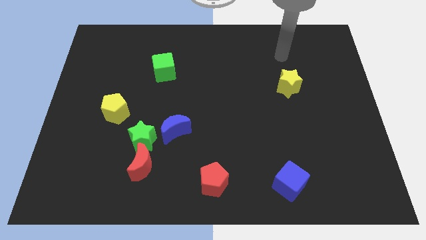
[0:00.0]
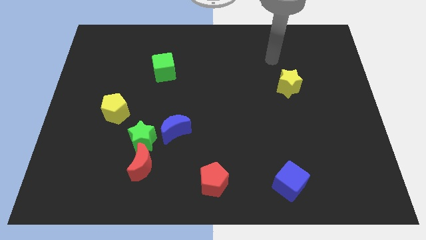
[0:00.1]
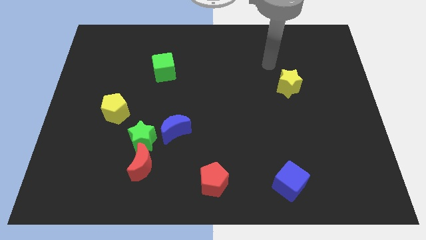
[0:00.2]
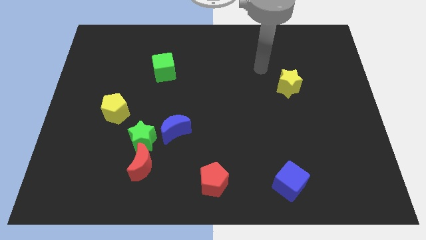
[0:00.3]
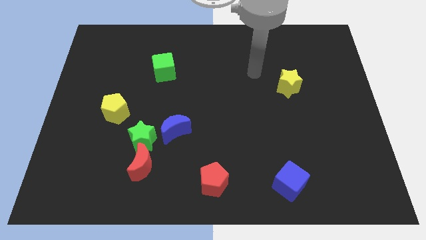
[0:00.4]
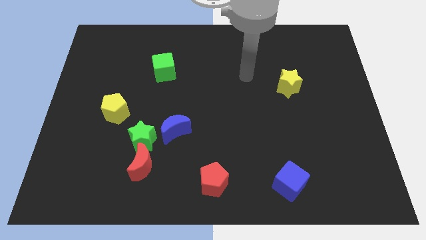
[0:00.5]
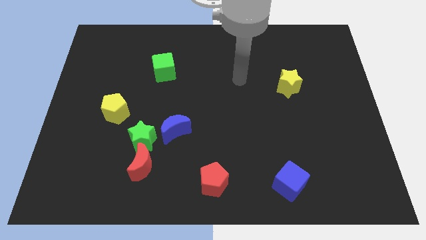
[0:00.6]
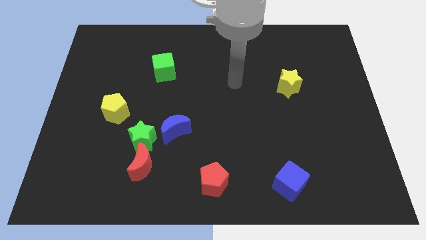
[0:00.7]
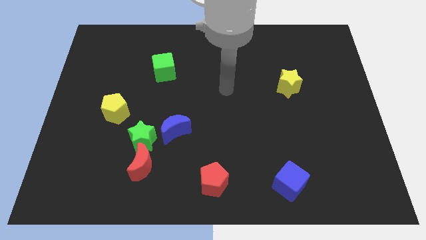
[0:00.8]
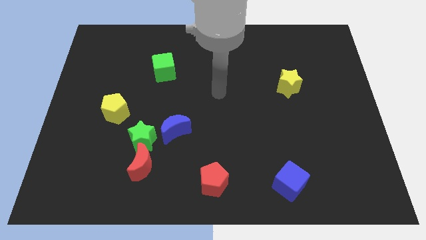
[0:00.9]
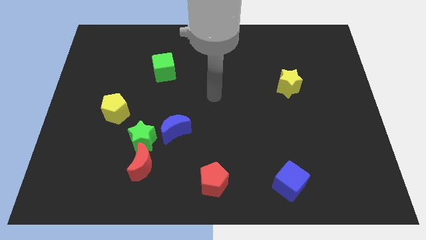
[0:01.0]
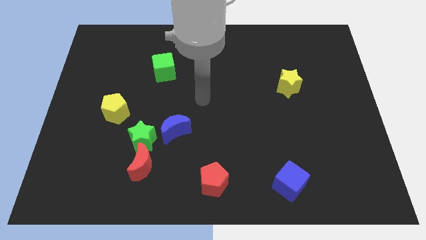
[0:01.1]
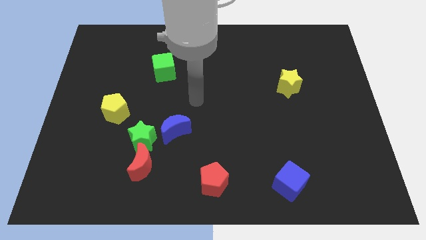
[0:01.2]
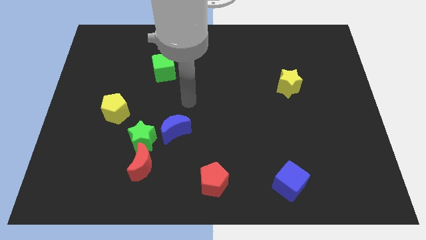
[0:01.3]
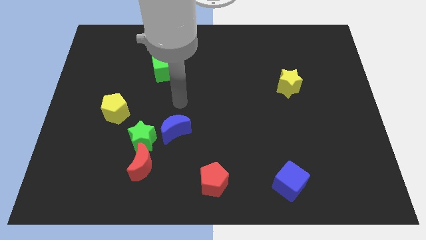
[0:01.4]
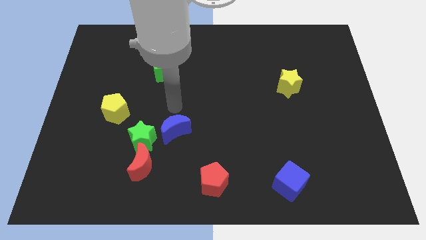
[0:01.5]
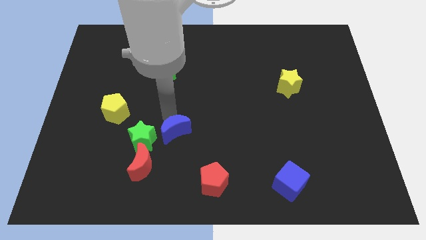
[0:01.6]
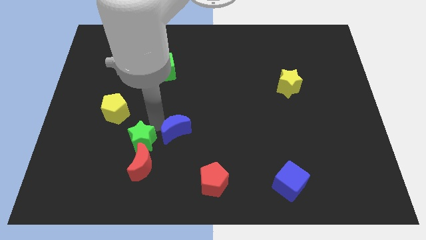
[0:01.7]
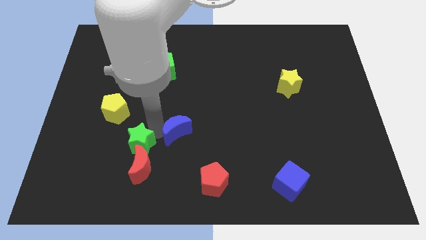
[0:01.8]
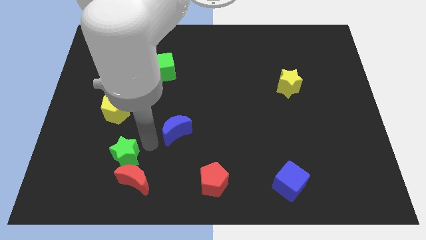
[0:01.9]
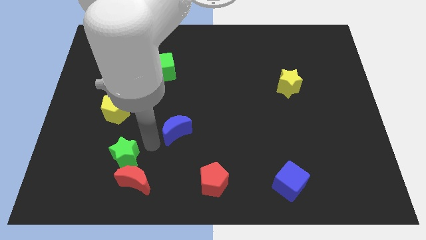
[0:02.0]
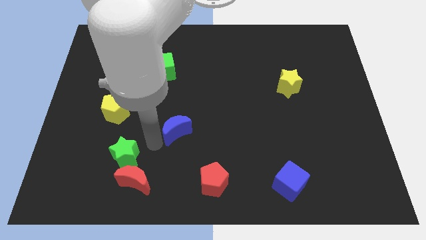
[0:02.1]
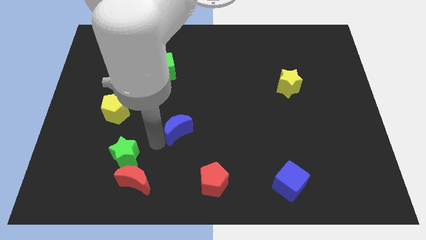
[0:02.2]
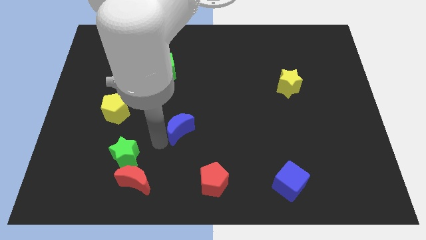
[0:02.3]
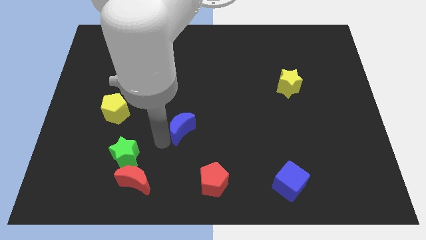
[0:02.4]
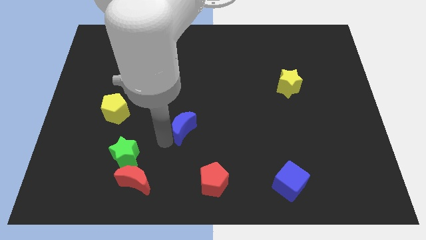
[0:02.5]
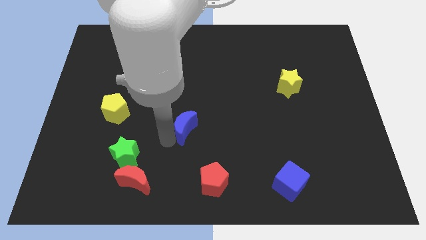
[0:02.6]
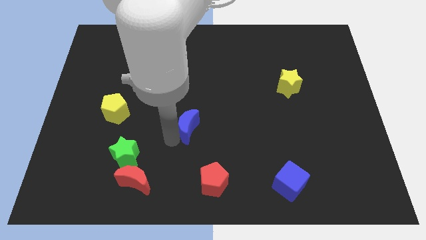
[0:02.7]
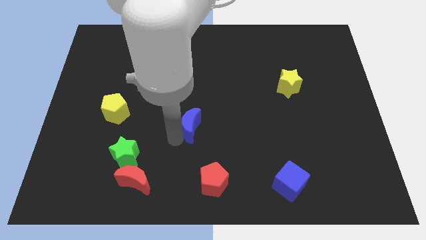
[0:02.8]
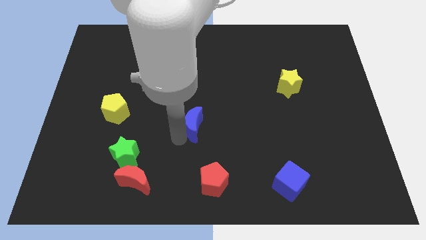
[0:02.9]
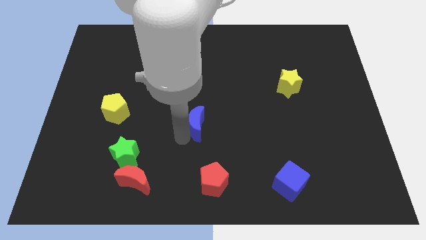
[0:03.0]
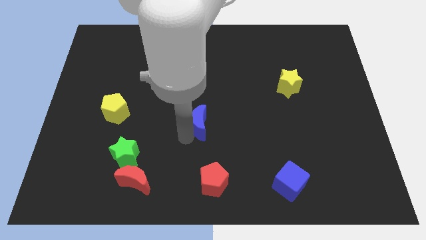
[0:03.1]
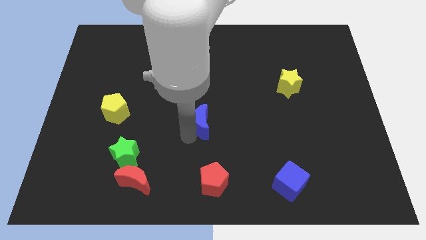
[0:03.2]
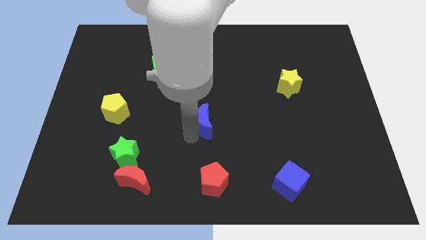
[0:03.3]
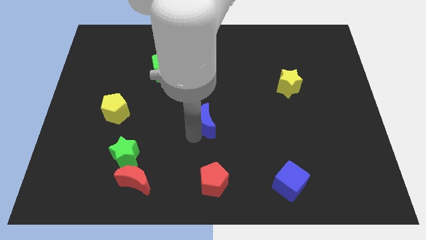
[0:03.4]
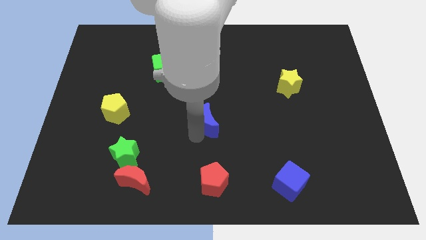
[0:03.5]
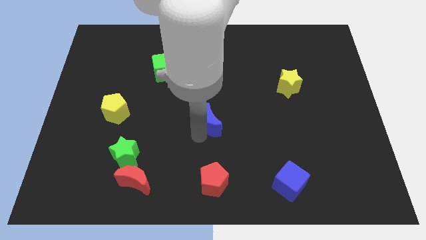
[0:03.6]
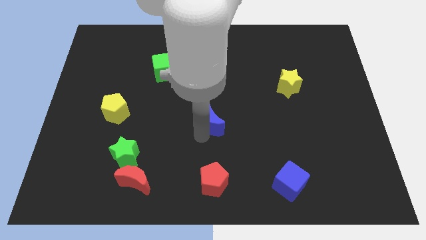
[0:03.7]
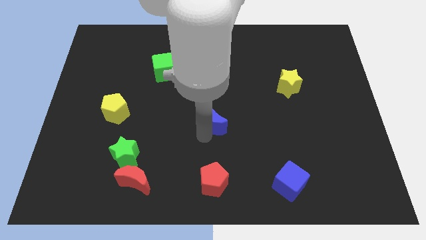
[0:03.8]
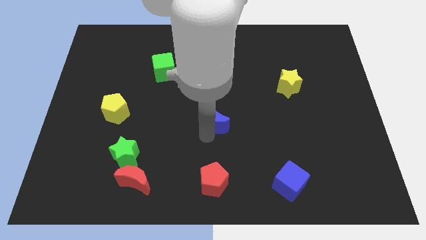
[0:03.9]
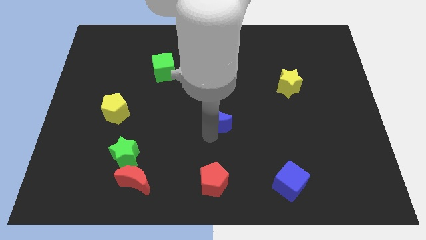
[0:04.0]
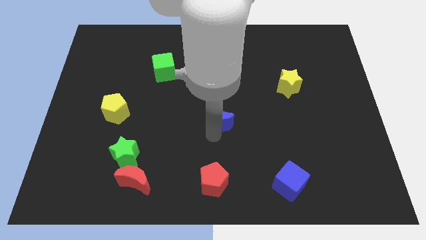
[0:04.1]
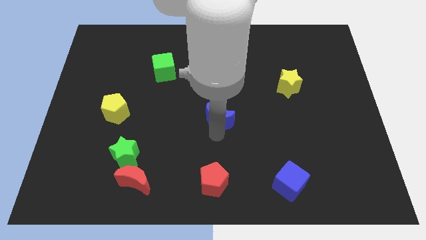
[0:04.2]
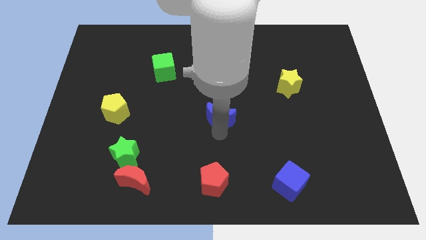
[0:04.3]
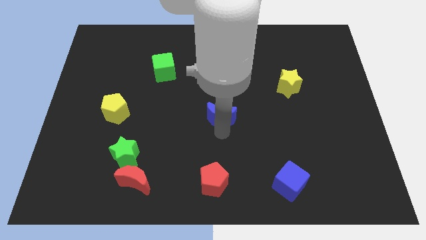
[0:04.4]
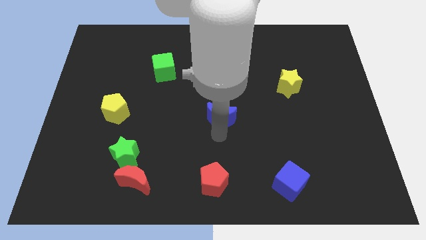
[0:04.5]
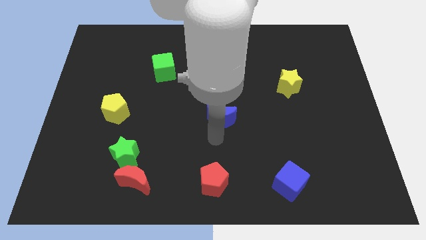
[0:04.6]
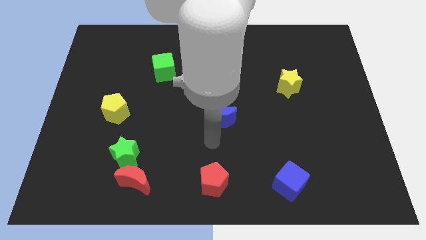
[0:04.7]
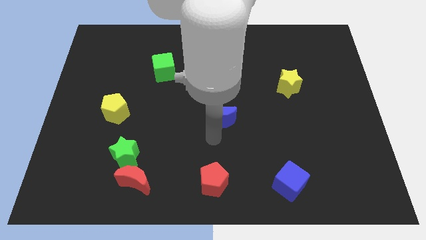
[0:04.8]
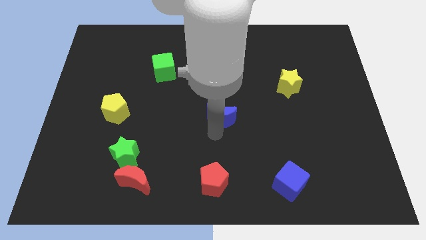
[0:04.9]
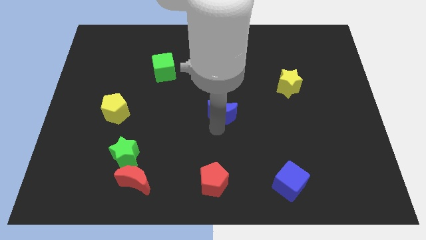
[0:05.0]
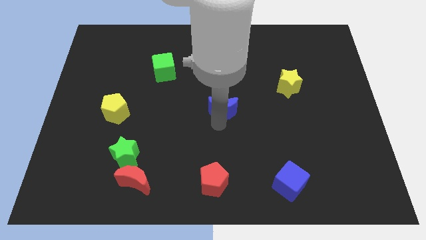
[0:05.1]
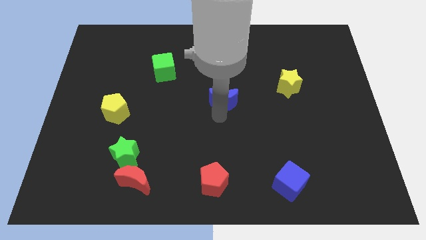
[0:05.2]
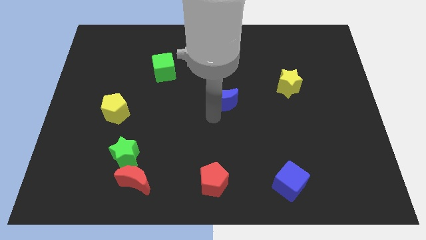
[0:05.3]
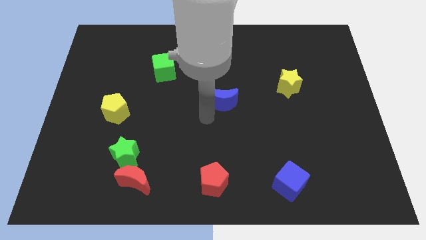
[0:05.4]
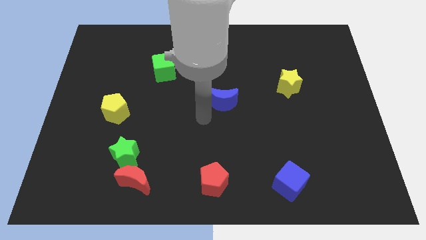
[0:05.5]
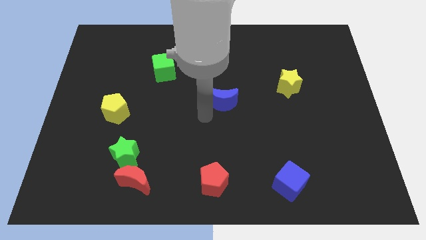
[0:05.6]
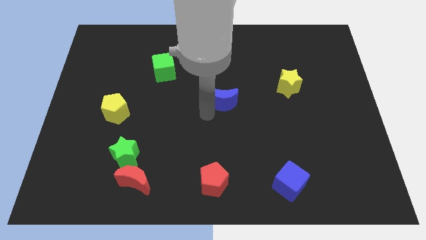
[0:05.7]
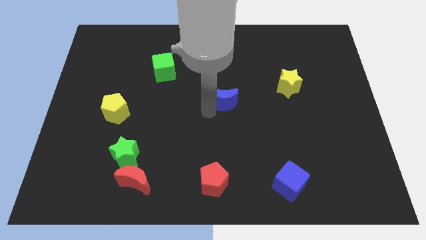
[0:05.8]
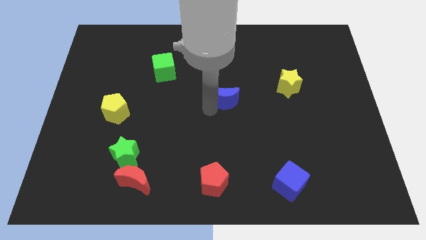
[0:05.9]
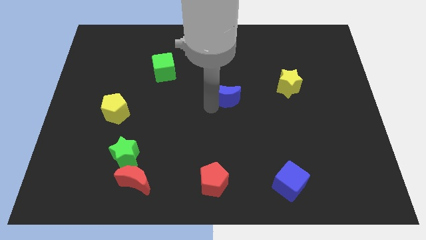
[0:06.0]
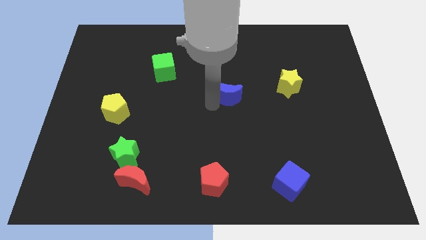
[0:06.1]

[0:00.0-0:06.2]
push the blue moon to the left of the yellow star

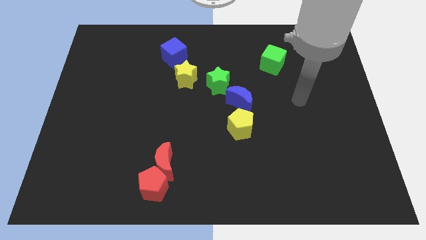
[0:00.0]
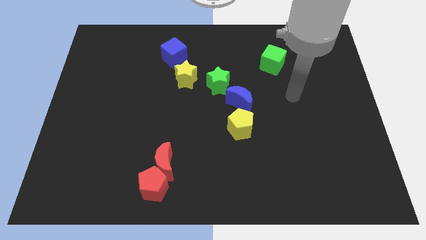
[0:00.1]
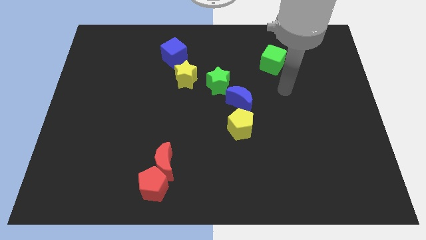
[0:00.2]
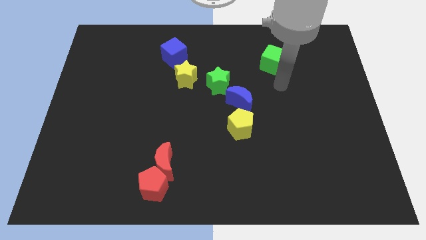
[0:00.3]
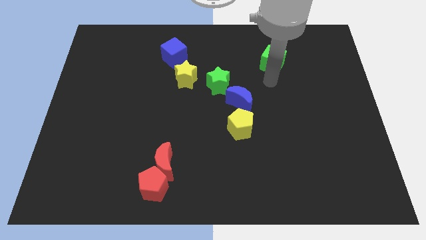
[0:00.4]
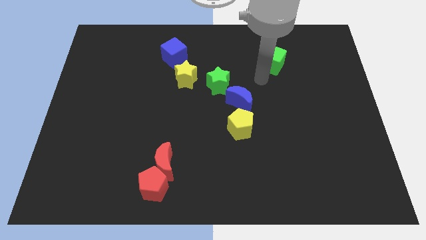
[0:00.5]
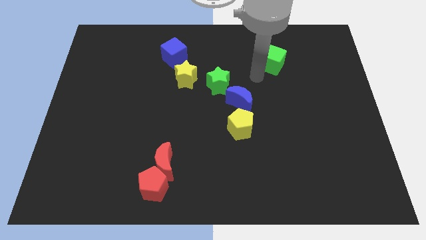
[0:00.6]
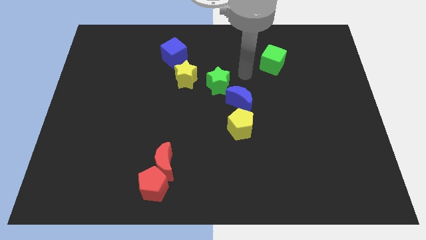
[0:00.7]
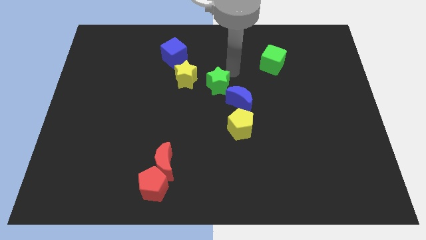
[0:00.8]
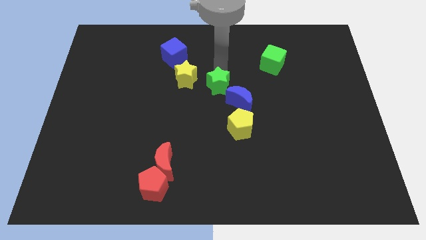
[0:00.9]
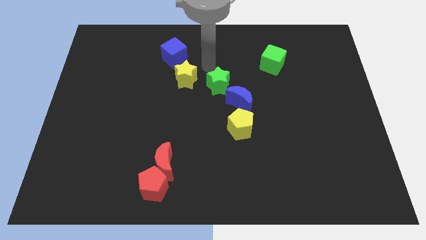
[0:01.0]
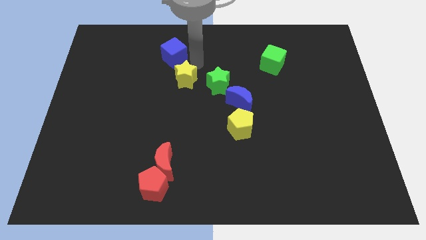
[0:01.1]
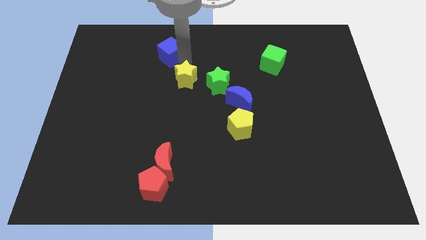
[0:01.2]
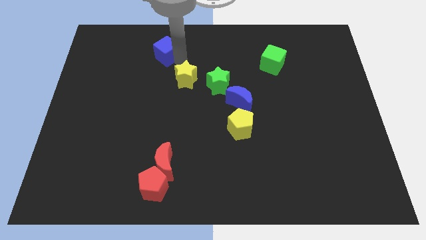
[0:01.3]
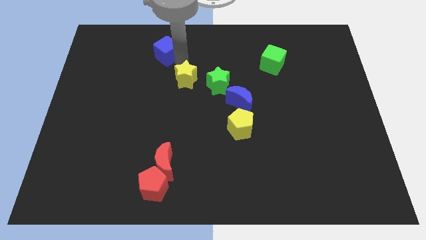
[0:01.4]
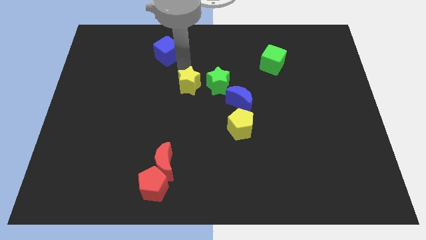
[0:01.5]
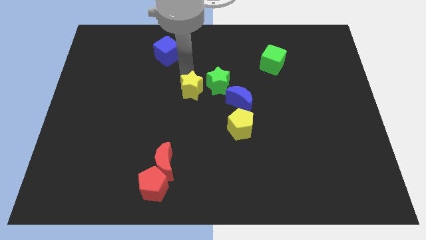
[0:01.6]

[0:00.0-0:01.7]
push the yellow star just left of the blue moon
